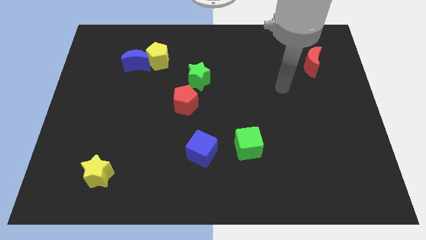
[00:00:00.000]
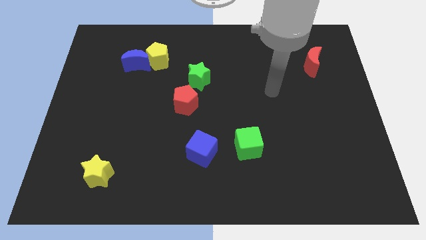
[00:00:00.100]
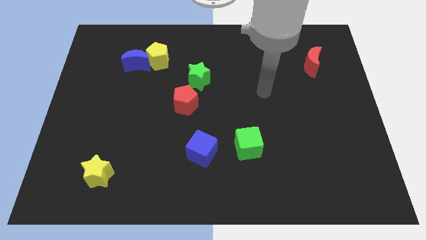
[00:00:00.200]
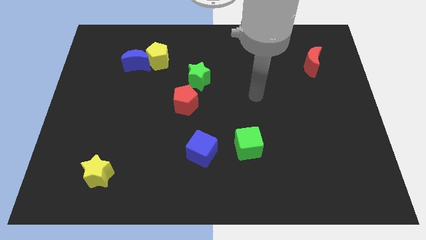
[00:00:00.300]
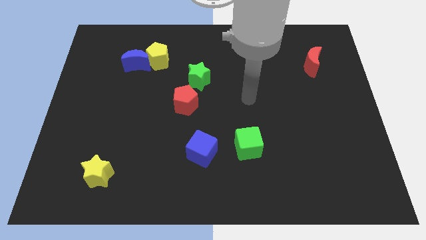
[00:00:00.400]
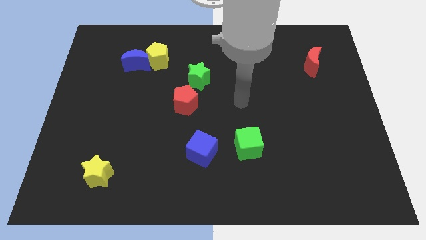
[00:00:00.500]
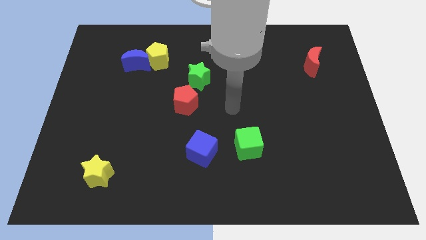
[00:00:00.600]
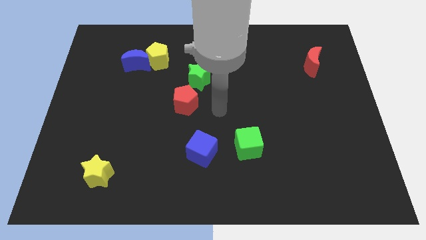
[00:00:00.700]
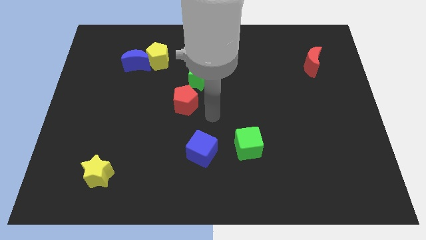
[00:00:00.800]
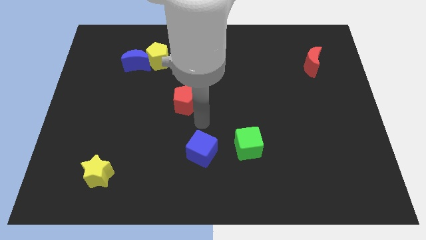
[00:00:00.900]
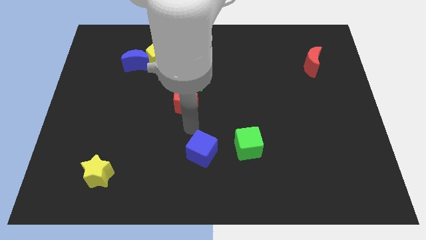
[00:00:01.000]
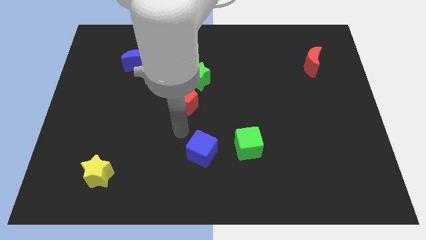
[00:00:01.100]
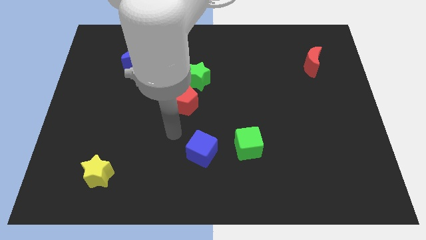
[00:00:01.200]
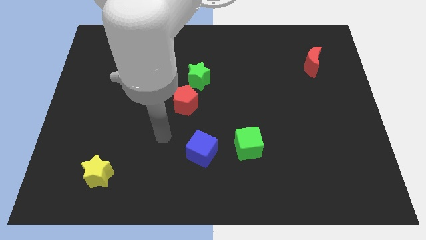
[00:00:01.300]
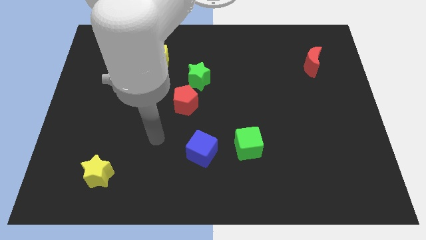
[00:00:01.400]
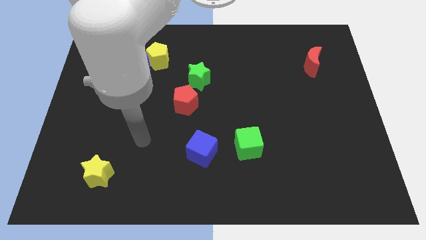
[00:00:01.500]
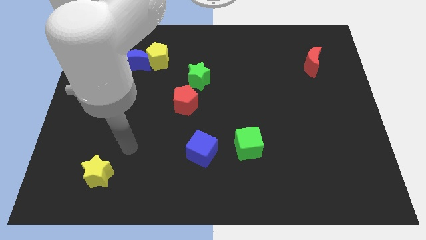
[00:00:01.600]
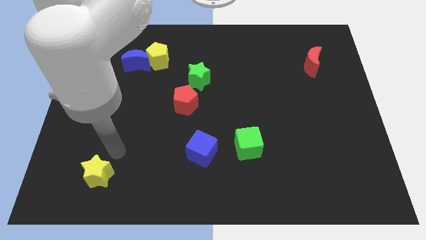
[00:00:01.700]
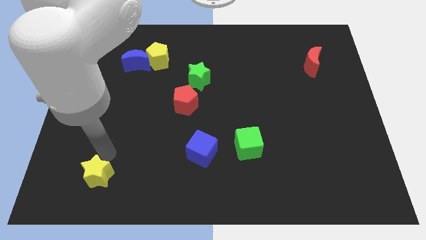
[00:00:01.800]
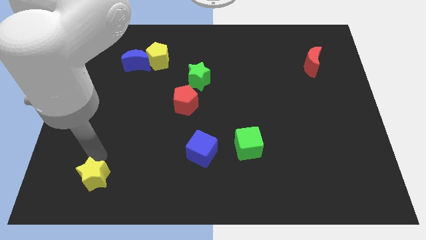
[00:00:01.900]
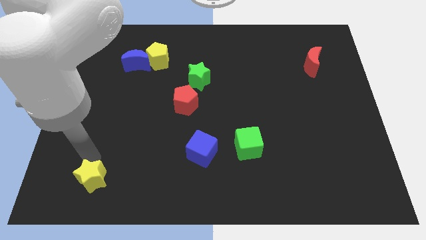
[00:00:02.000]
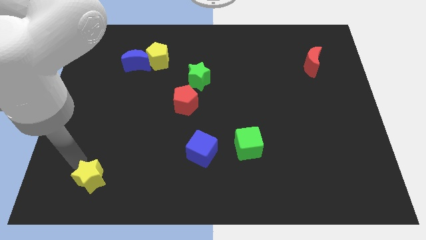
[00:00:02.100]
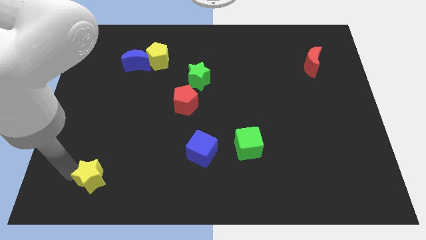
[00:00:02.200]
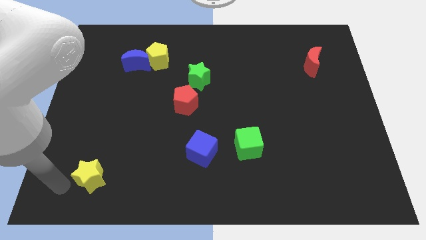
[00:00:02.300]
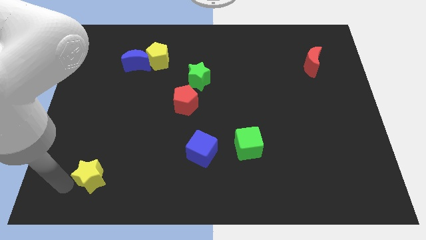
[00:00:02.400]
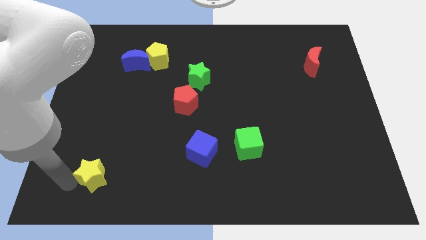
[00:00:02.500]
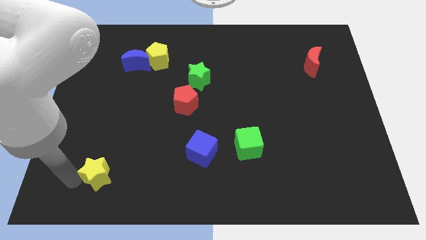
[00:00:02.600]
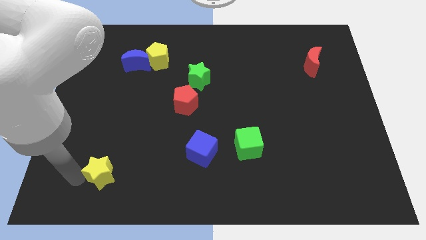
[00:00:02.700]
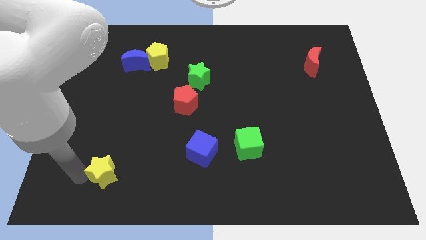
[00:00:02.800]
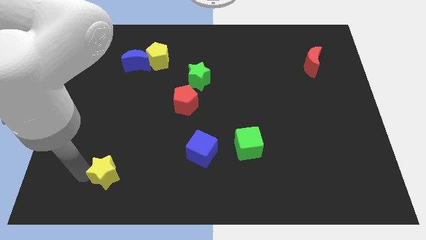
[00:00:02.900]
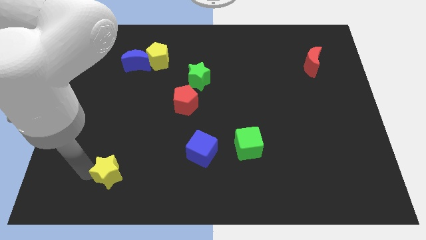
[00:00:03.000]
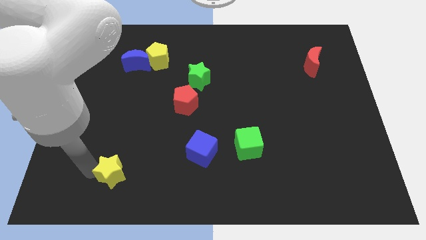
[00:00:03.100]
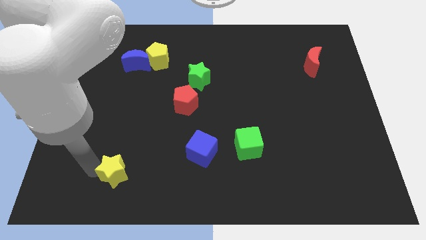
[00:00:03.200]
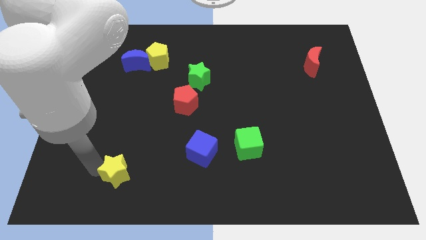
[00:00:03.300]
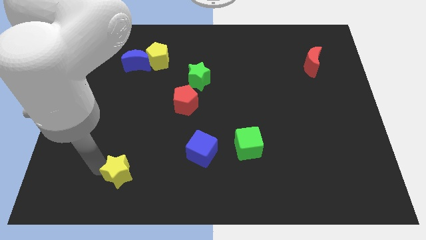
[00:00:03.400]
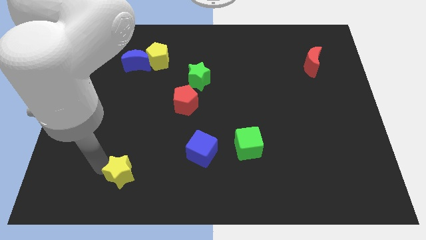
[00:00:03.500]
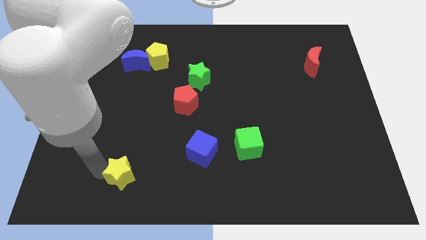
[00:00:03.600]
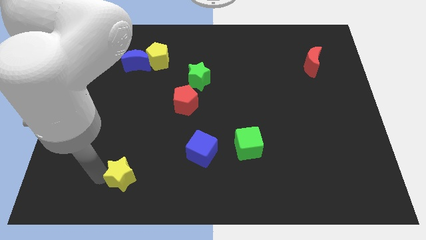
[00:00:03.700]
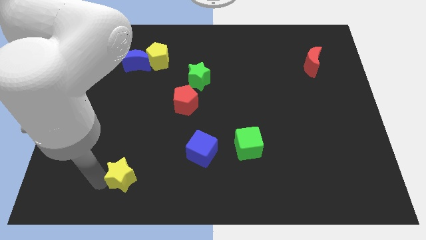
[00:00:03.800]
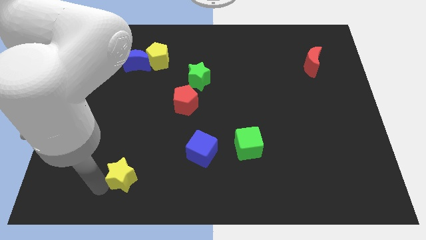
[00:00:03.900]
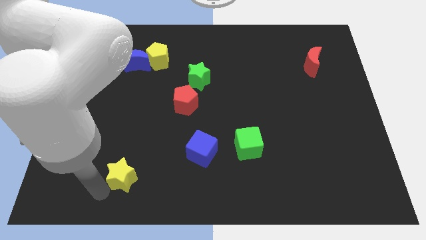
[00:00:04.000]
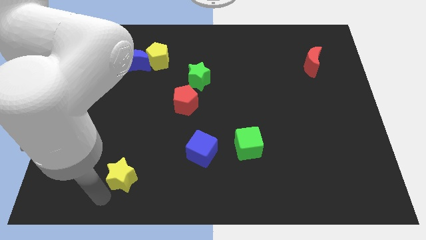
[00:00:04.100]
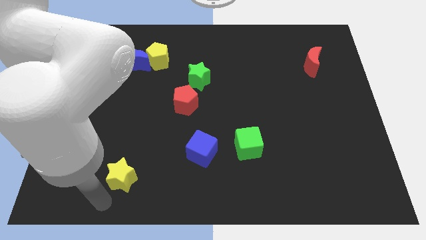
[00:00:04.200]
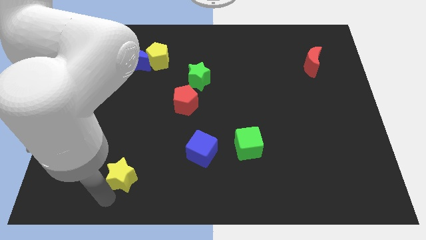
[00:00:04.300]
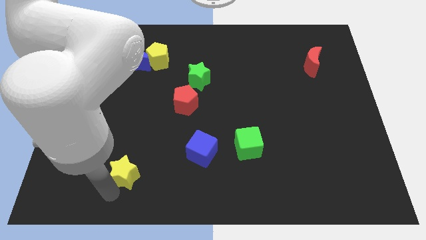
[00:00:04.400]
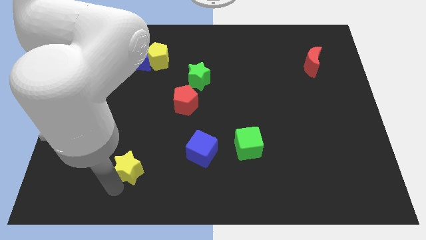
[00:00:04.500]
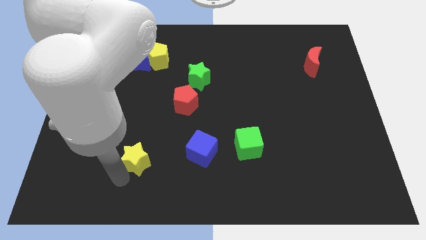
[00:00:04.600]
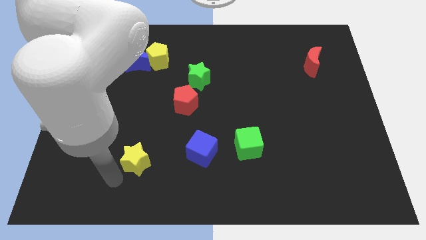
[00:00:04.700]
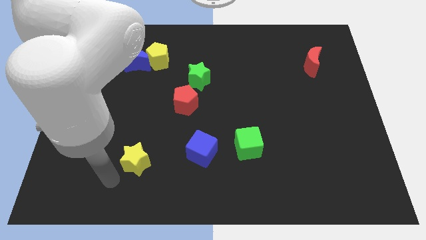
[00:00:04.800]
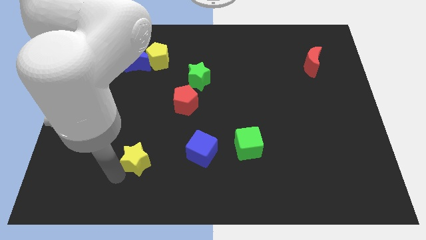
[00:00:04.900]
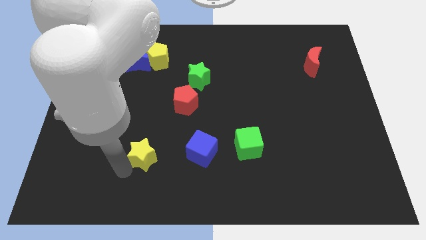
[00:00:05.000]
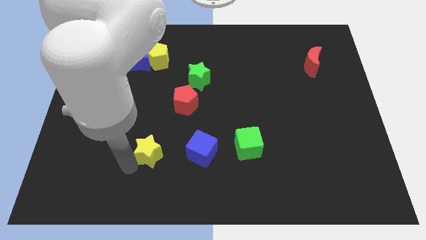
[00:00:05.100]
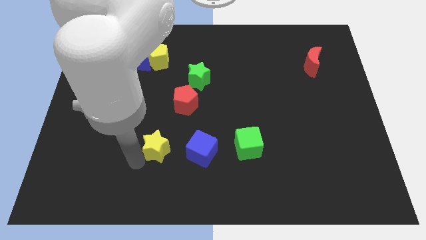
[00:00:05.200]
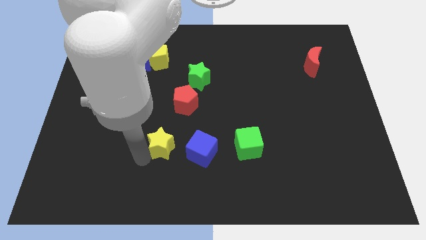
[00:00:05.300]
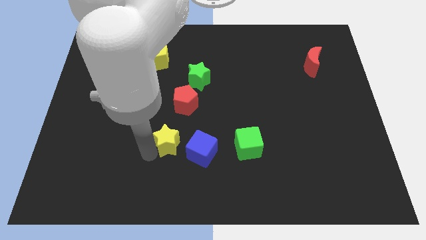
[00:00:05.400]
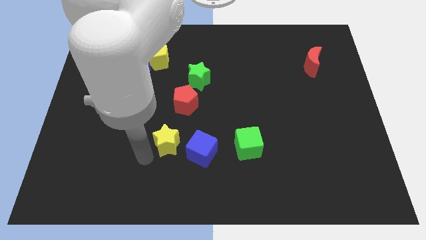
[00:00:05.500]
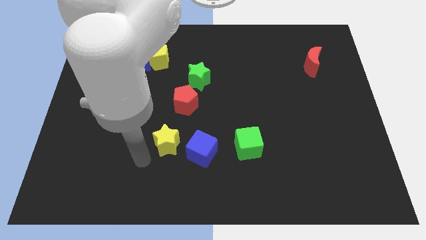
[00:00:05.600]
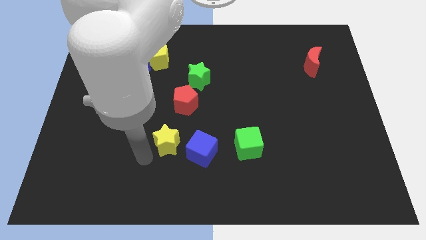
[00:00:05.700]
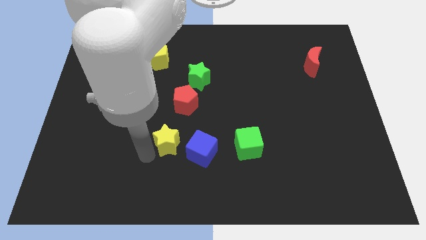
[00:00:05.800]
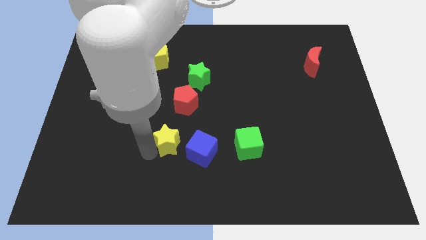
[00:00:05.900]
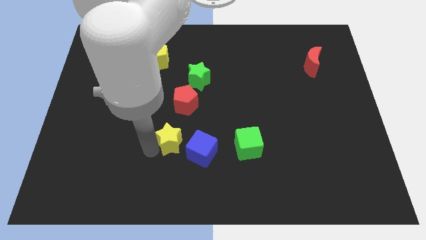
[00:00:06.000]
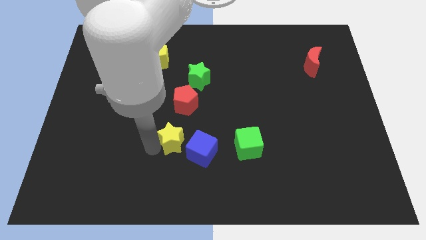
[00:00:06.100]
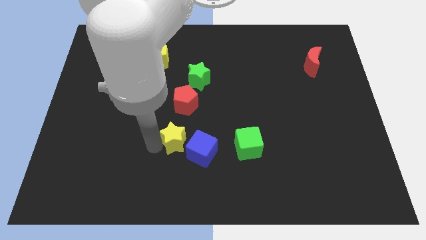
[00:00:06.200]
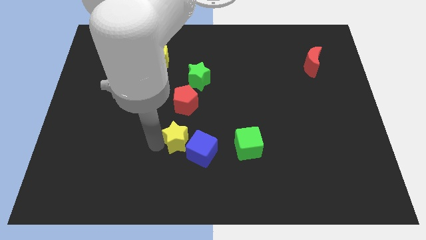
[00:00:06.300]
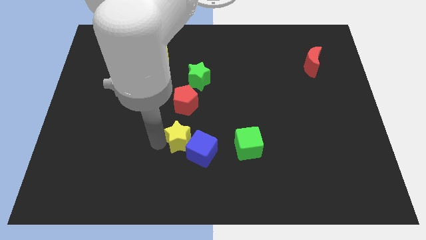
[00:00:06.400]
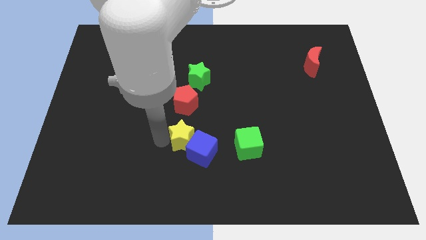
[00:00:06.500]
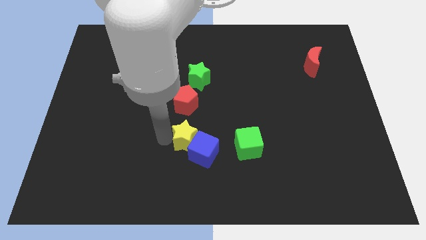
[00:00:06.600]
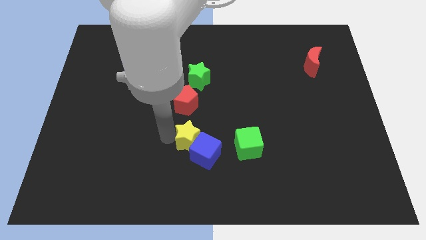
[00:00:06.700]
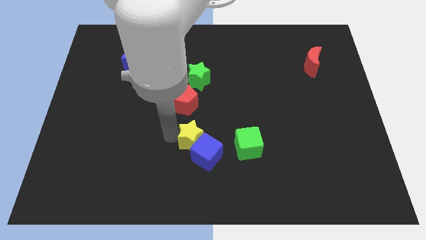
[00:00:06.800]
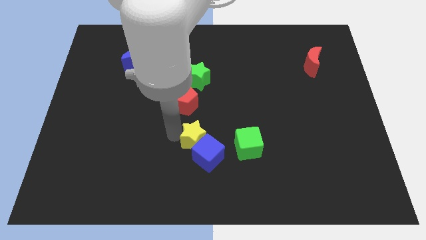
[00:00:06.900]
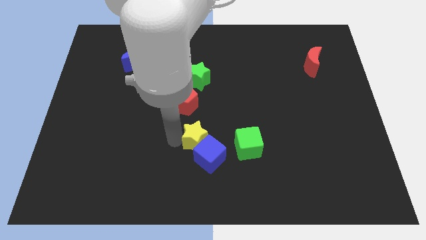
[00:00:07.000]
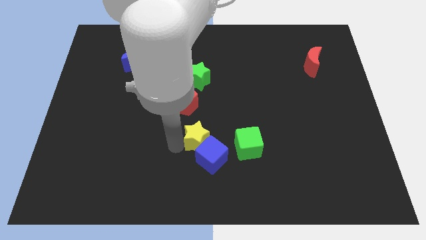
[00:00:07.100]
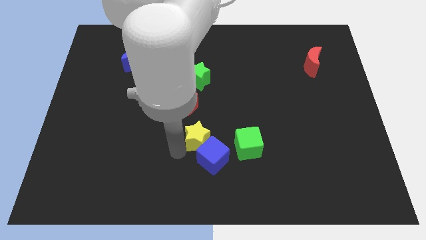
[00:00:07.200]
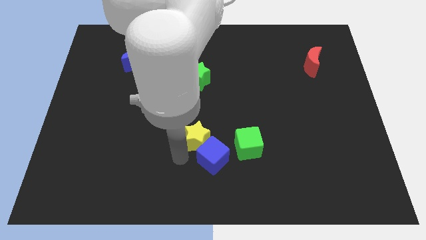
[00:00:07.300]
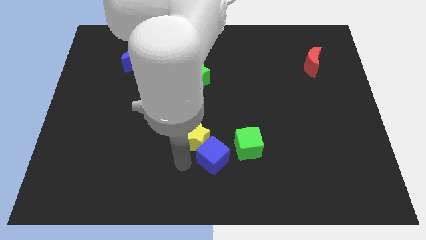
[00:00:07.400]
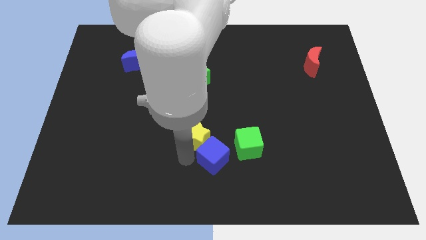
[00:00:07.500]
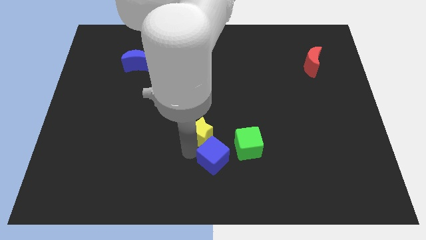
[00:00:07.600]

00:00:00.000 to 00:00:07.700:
push the yellow star to the bottom right side of the red pentagon
